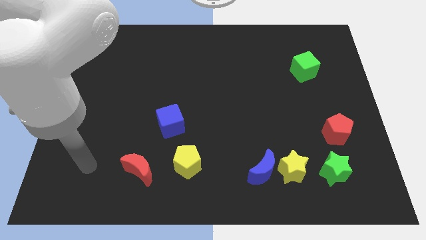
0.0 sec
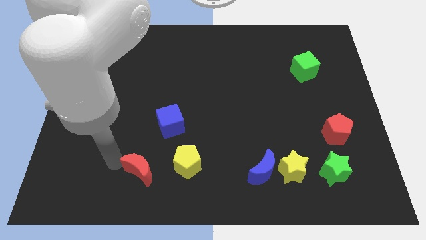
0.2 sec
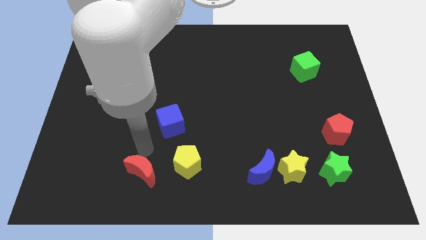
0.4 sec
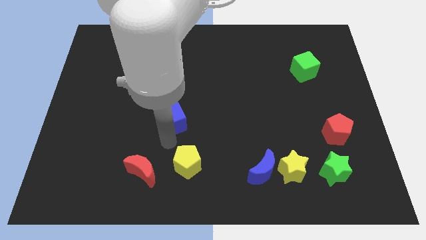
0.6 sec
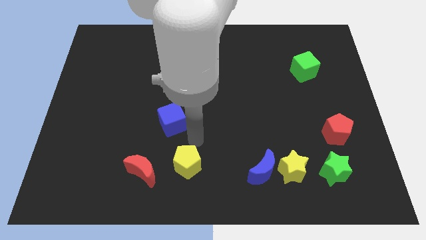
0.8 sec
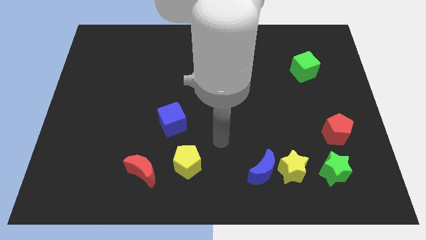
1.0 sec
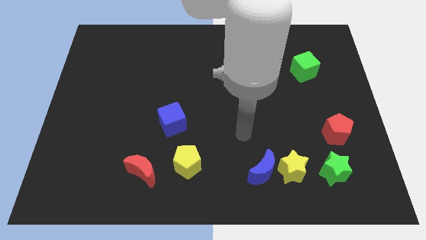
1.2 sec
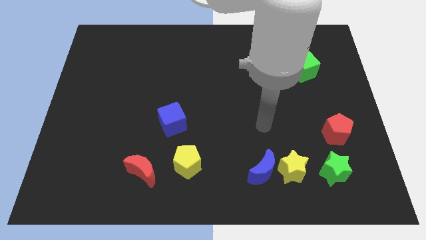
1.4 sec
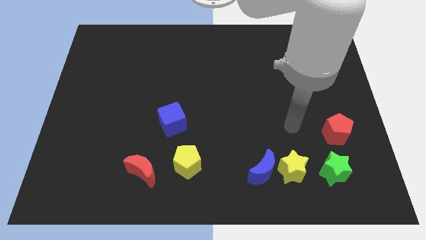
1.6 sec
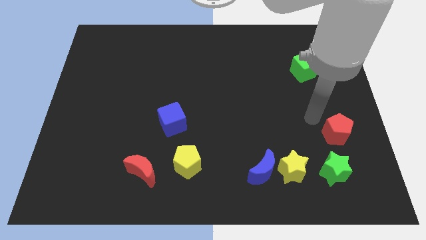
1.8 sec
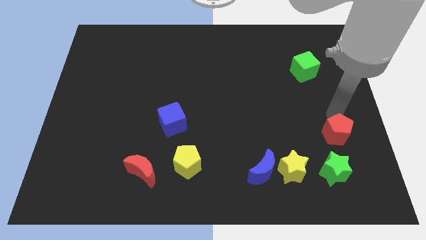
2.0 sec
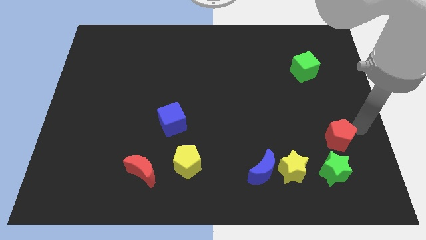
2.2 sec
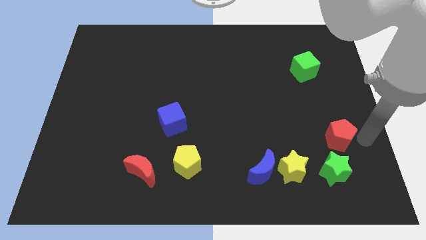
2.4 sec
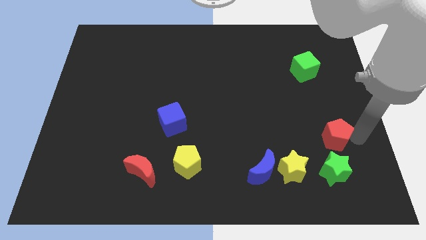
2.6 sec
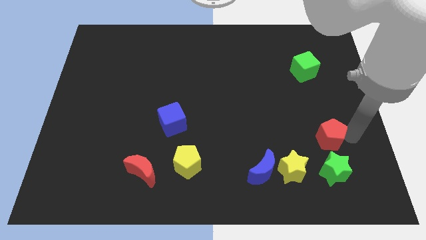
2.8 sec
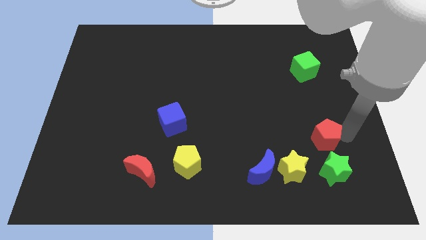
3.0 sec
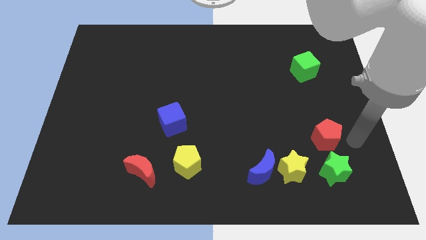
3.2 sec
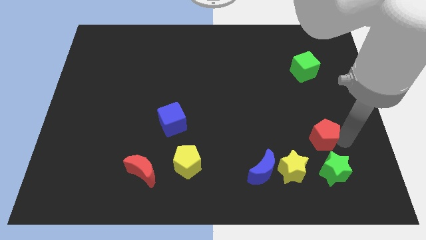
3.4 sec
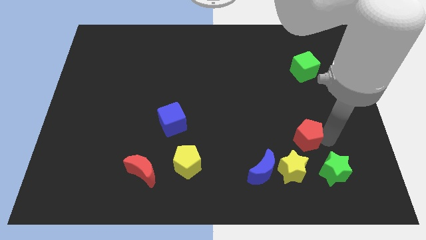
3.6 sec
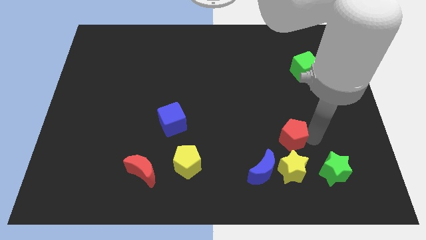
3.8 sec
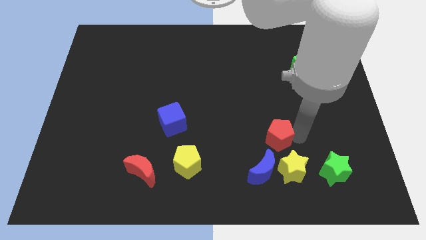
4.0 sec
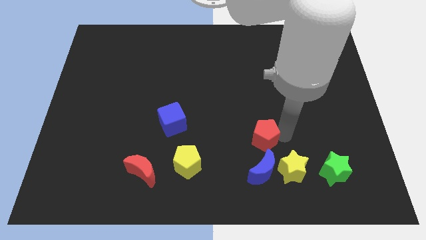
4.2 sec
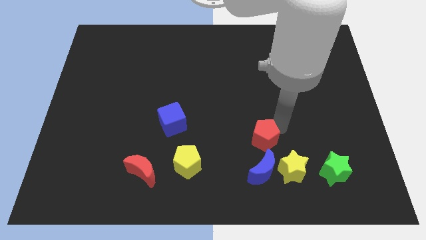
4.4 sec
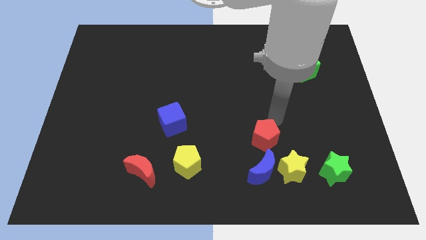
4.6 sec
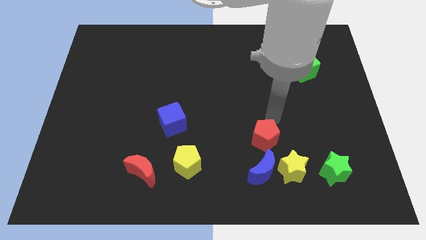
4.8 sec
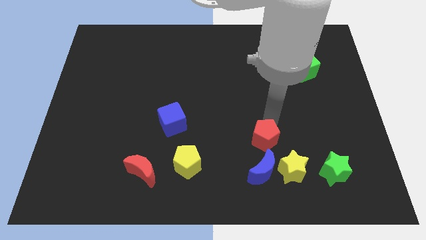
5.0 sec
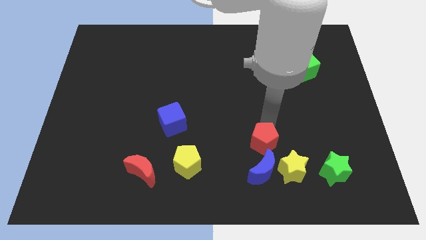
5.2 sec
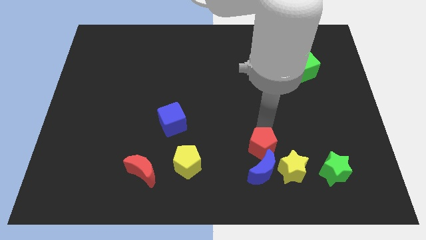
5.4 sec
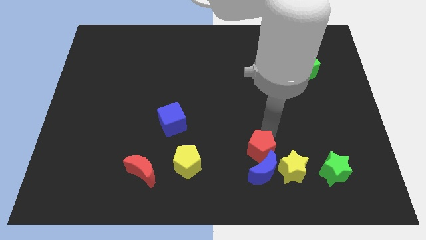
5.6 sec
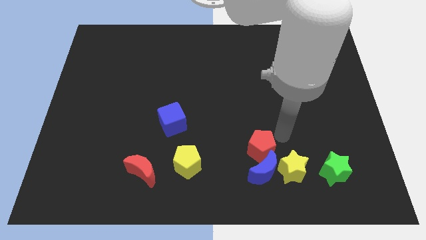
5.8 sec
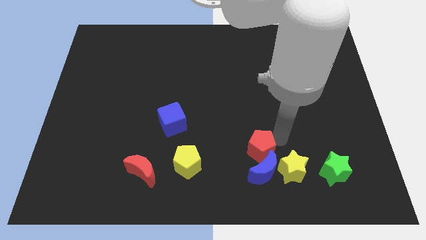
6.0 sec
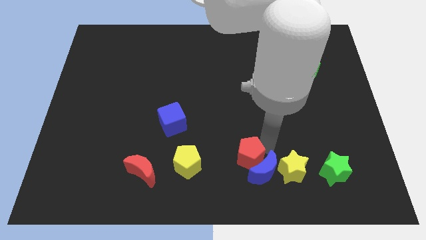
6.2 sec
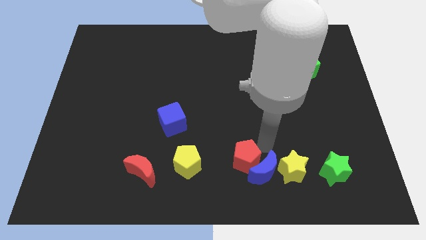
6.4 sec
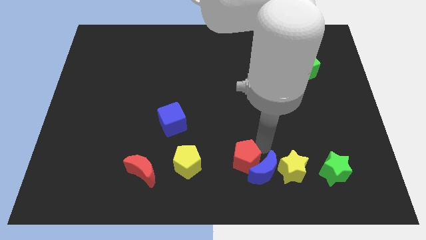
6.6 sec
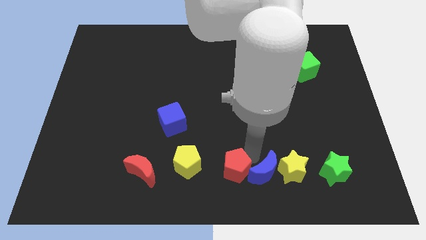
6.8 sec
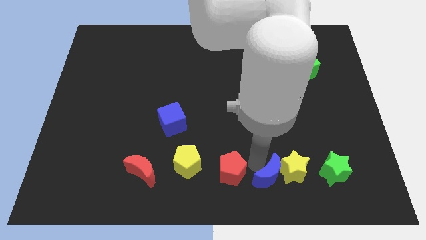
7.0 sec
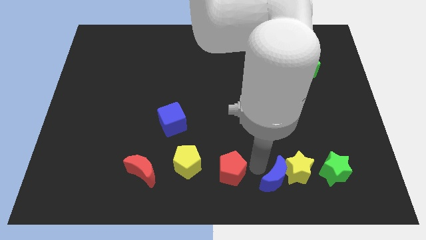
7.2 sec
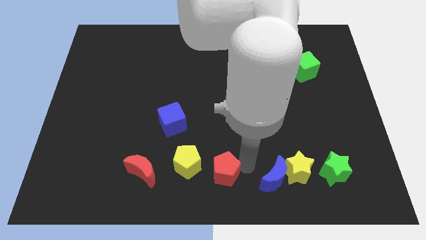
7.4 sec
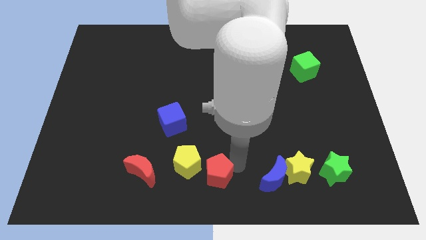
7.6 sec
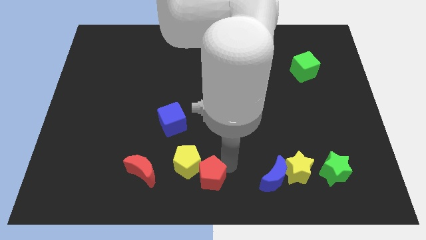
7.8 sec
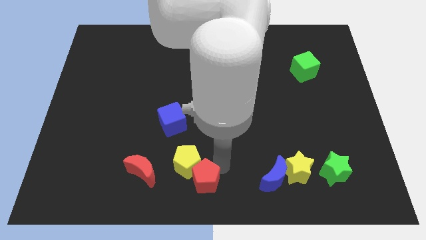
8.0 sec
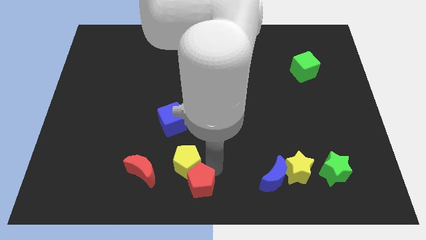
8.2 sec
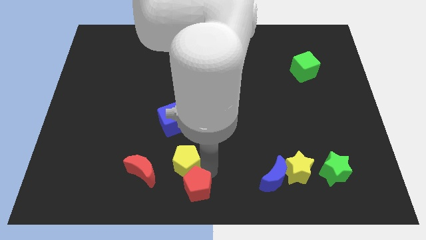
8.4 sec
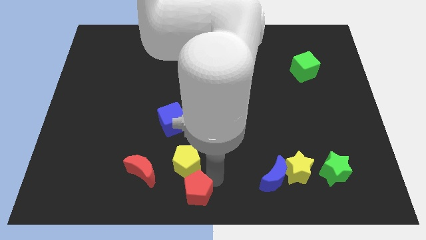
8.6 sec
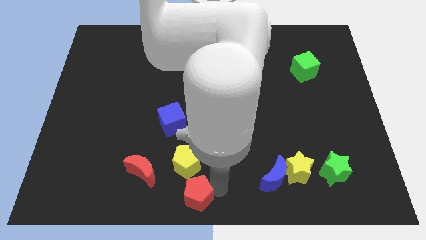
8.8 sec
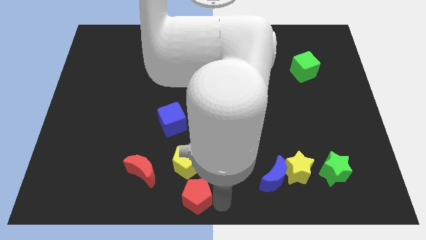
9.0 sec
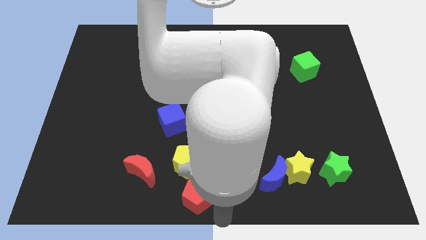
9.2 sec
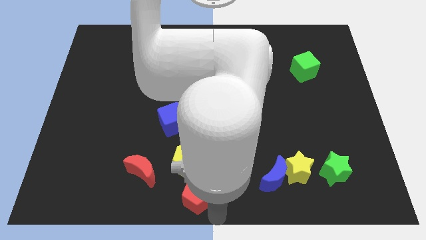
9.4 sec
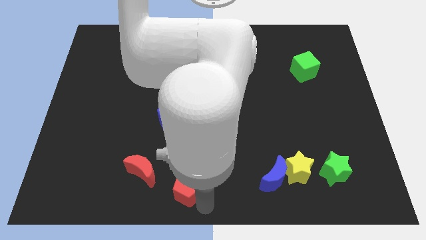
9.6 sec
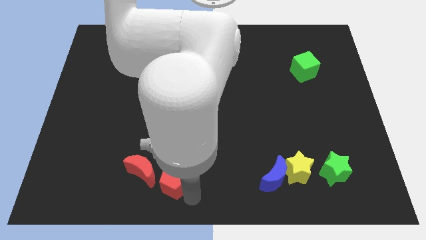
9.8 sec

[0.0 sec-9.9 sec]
slide the red pentagon to the bottom of the blue cube

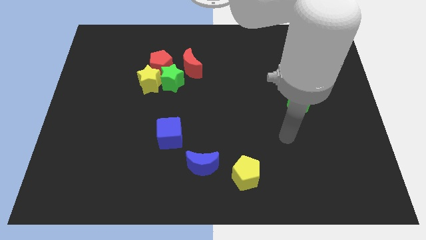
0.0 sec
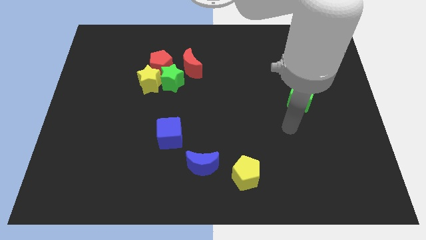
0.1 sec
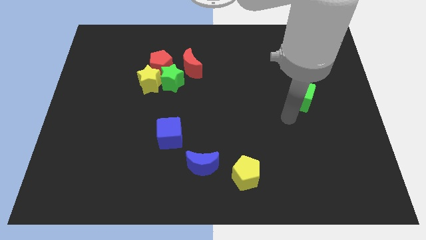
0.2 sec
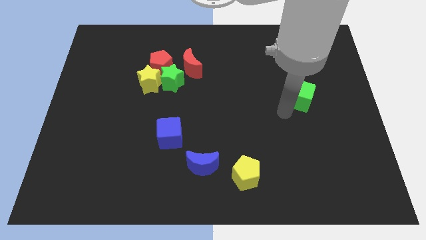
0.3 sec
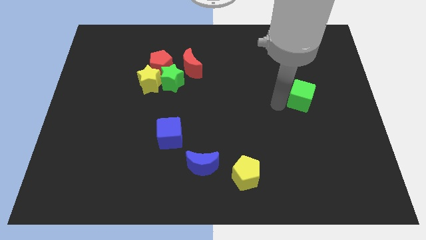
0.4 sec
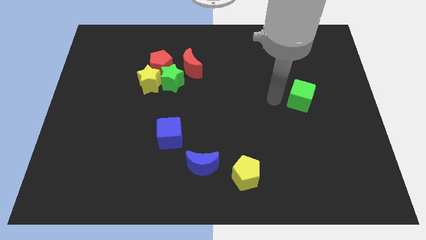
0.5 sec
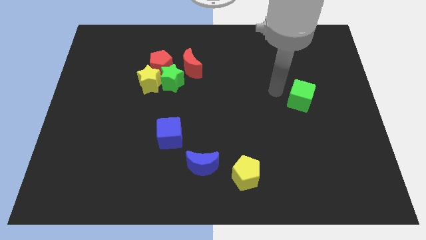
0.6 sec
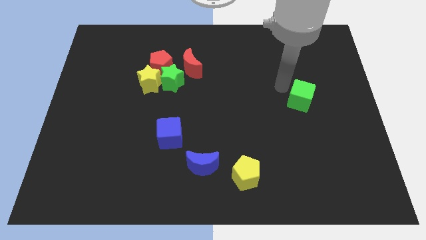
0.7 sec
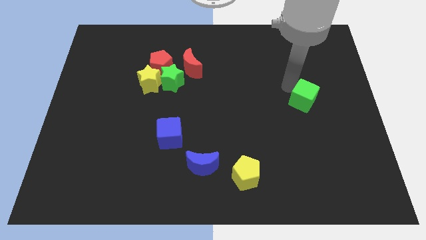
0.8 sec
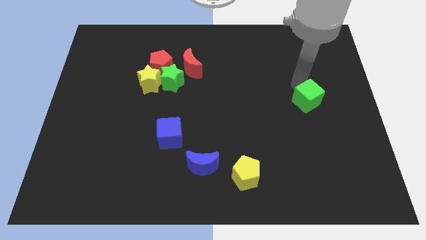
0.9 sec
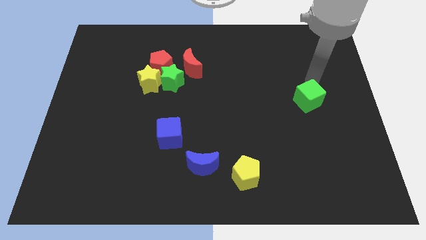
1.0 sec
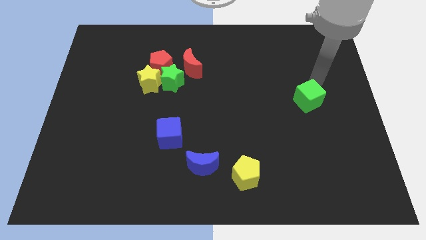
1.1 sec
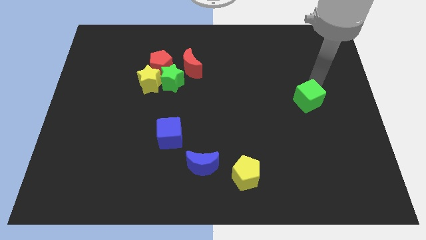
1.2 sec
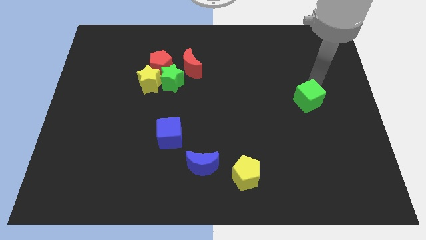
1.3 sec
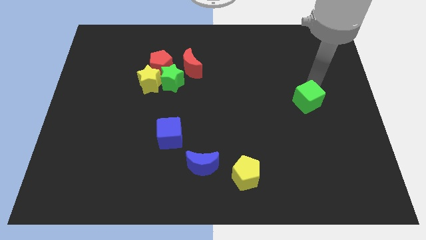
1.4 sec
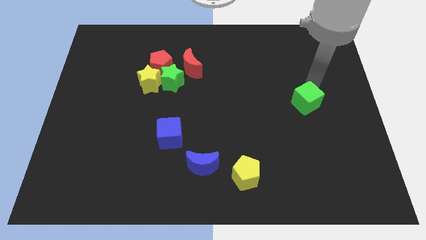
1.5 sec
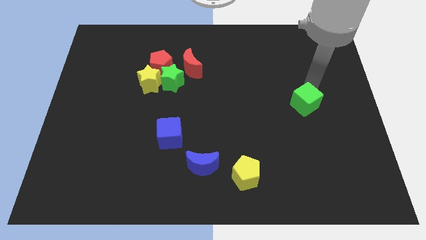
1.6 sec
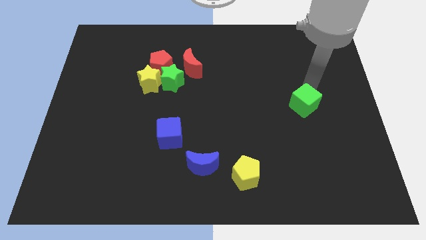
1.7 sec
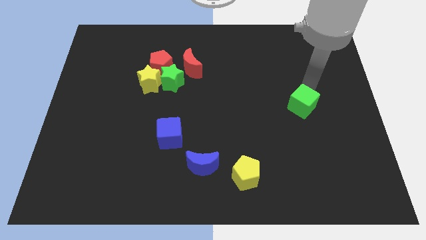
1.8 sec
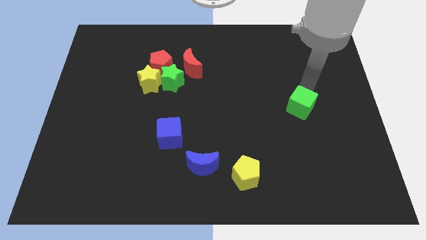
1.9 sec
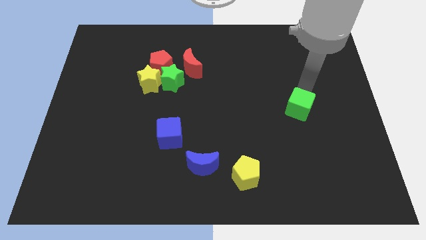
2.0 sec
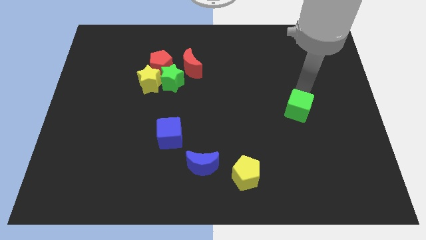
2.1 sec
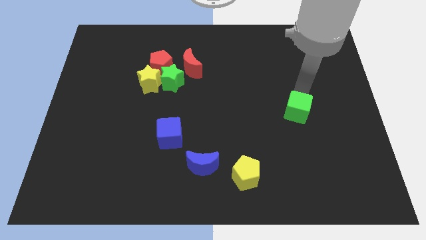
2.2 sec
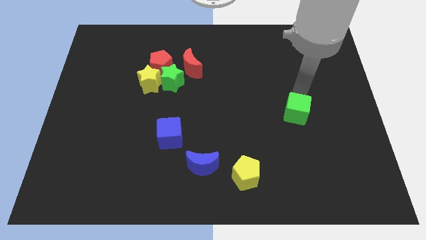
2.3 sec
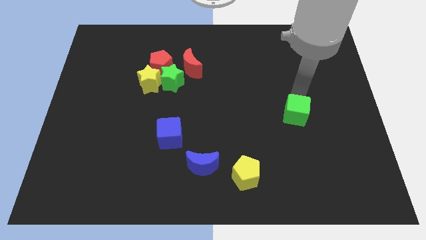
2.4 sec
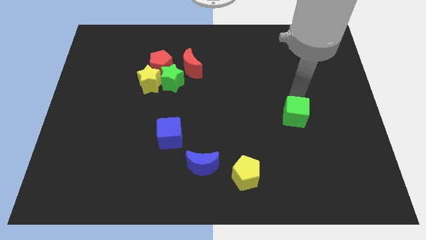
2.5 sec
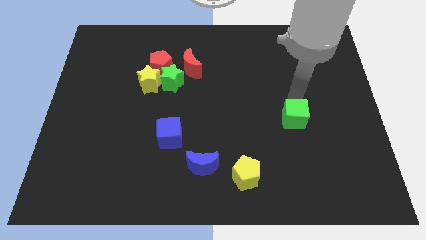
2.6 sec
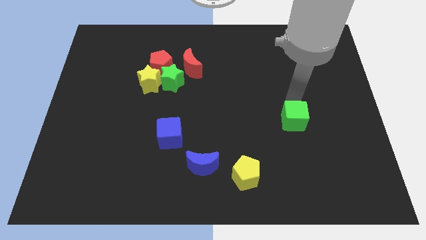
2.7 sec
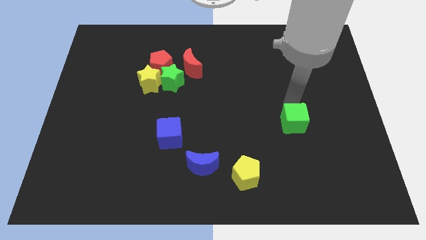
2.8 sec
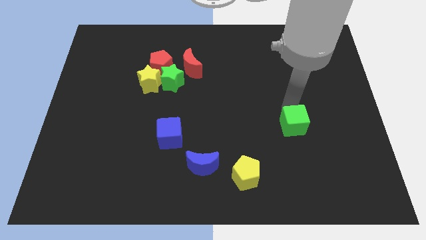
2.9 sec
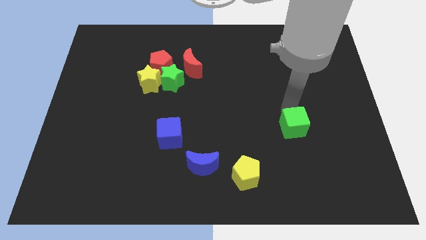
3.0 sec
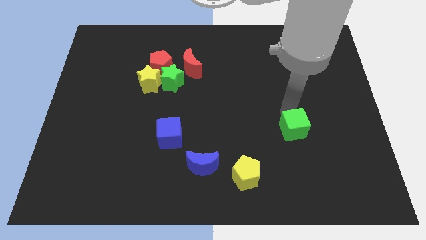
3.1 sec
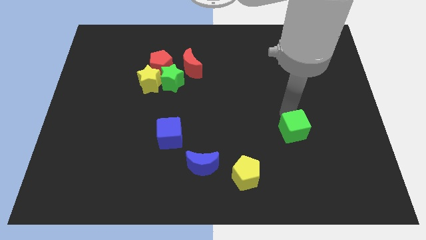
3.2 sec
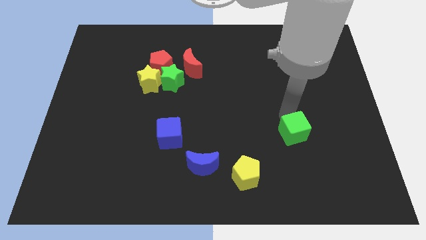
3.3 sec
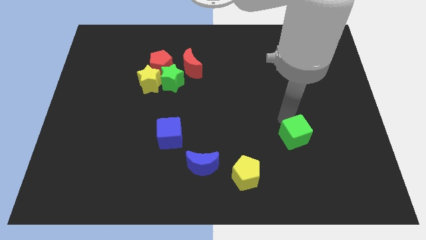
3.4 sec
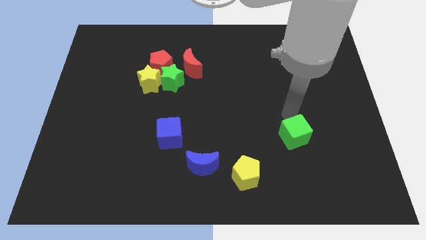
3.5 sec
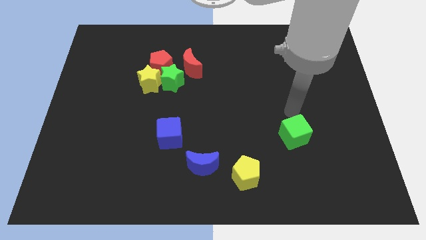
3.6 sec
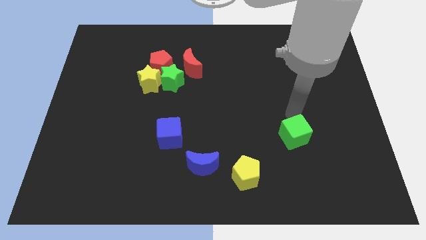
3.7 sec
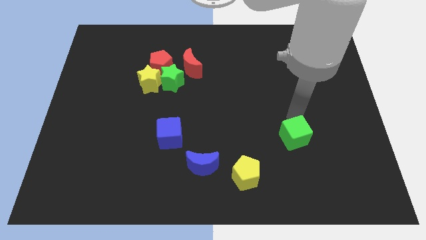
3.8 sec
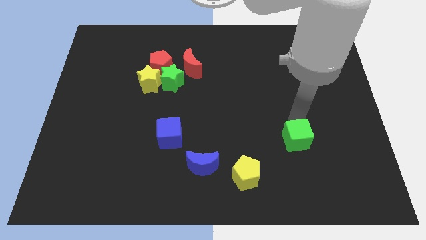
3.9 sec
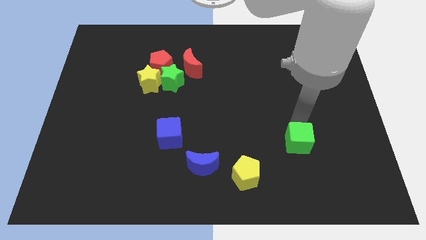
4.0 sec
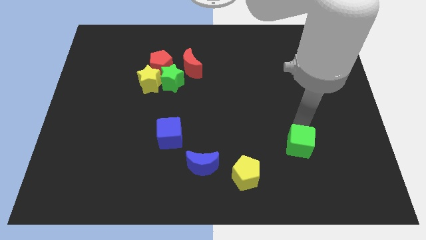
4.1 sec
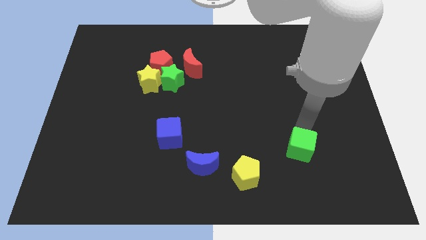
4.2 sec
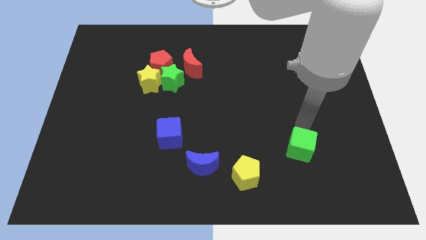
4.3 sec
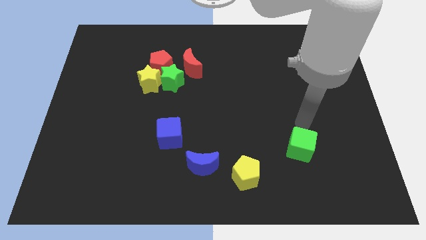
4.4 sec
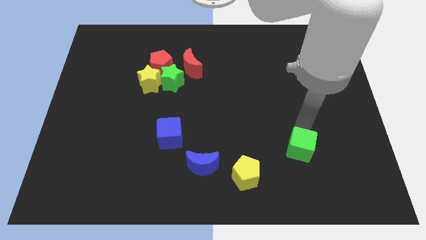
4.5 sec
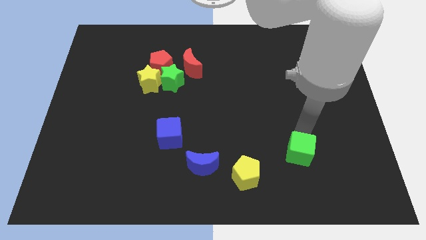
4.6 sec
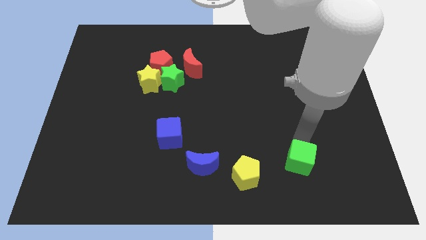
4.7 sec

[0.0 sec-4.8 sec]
push the green cube to the right side of the yellow pentagon
